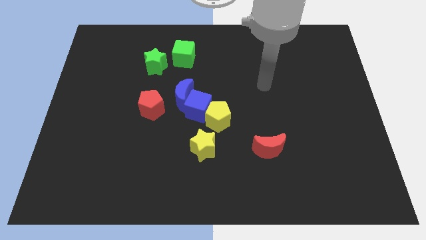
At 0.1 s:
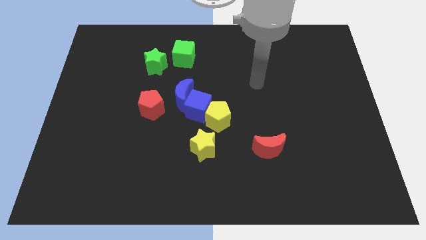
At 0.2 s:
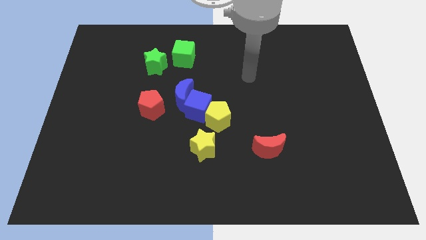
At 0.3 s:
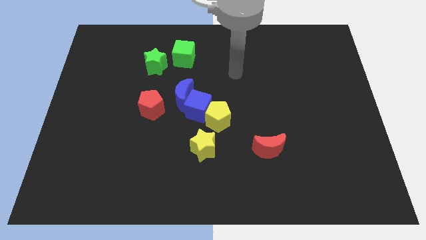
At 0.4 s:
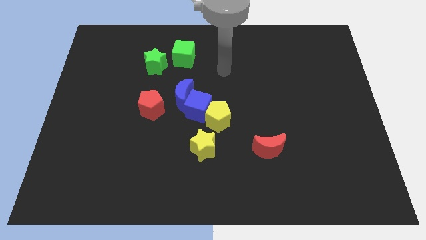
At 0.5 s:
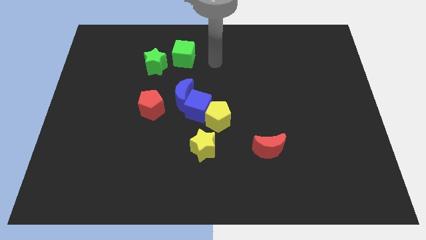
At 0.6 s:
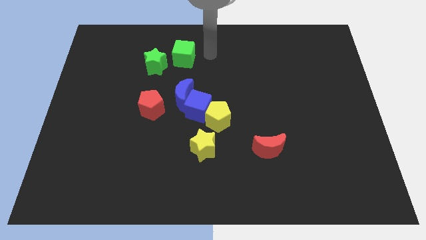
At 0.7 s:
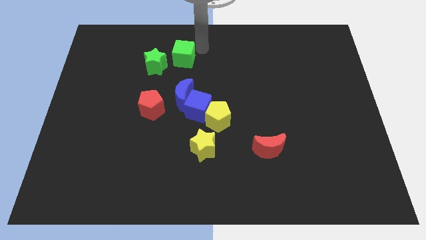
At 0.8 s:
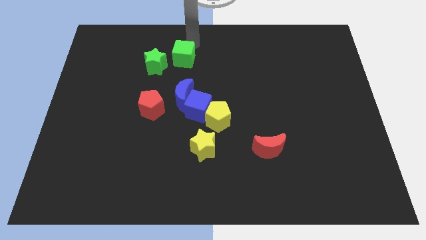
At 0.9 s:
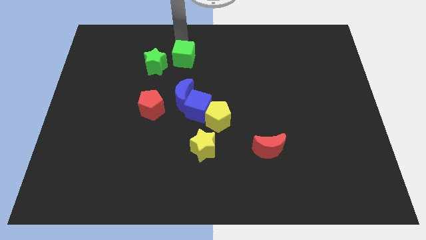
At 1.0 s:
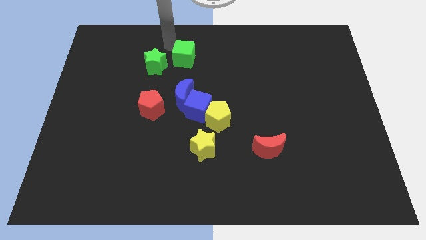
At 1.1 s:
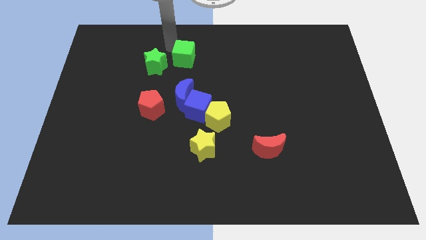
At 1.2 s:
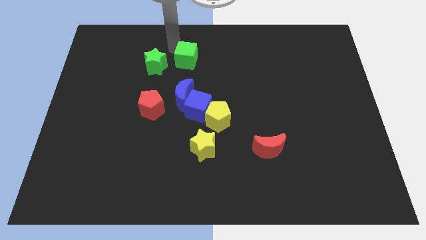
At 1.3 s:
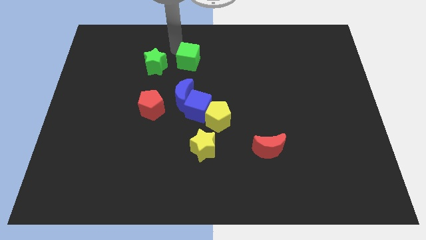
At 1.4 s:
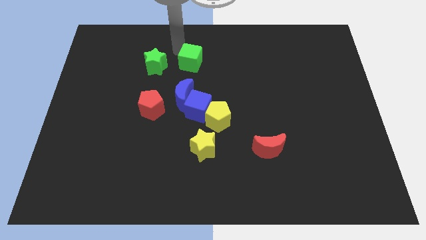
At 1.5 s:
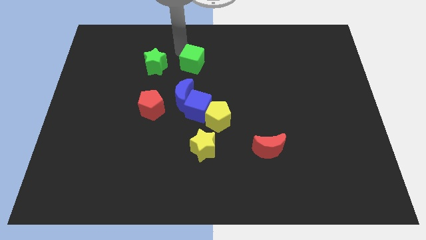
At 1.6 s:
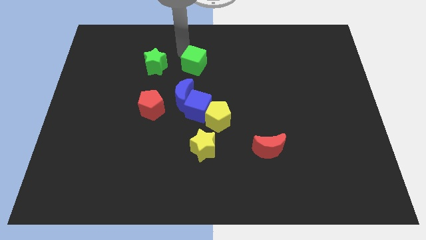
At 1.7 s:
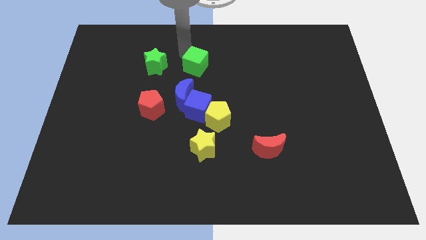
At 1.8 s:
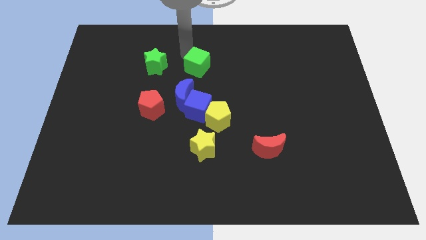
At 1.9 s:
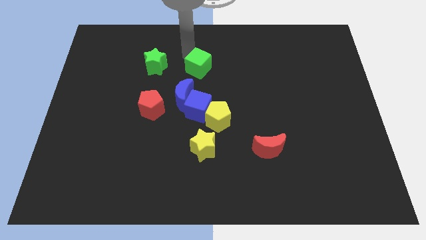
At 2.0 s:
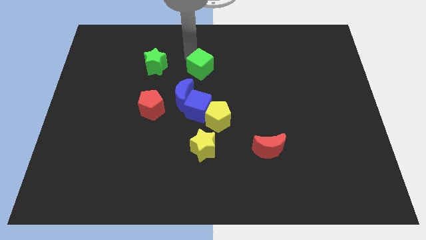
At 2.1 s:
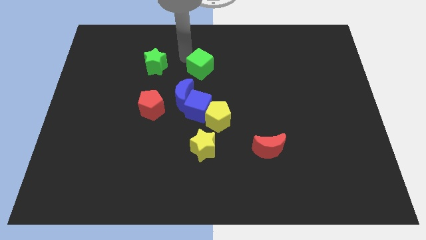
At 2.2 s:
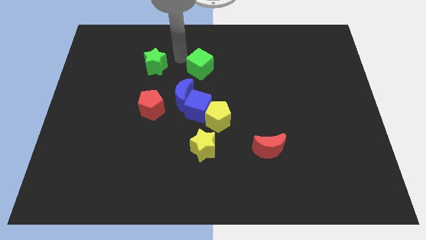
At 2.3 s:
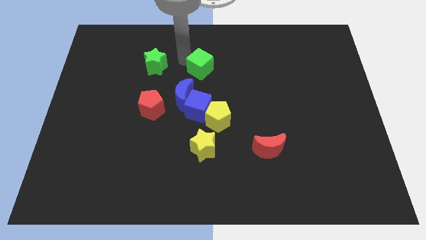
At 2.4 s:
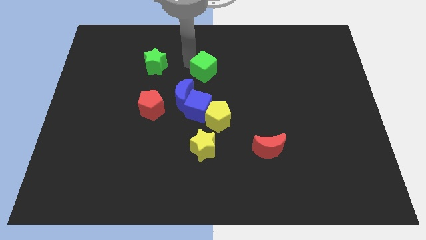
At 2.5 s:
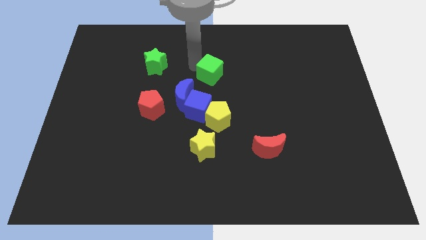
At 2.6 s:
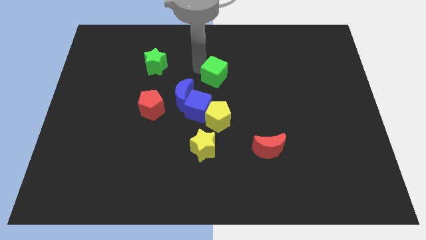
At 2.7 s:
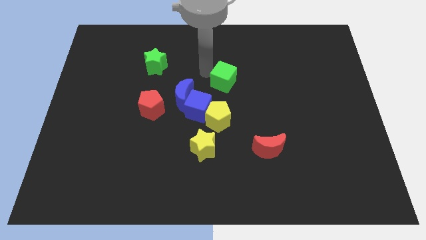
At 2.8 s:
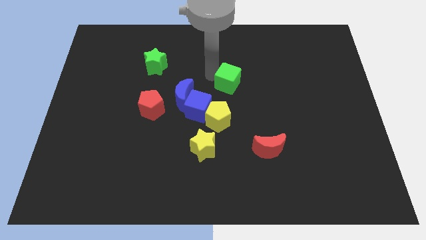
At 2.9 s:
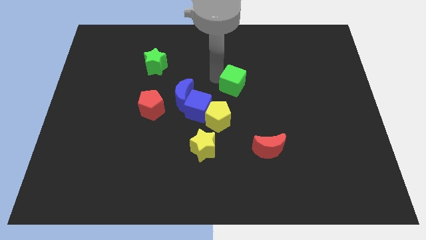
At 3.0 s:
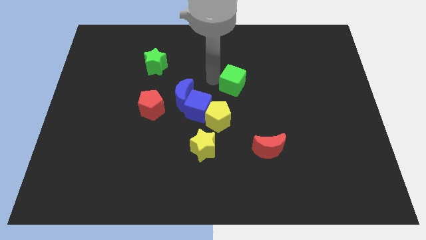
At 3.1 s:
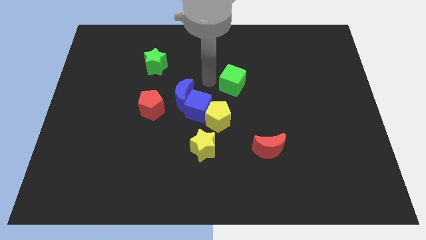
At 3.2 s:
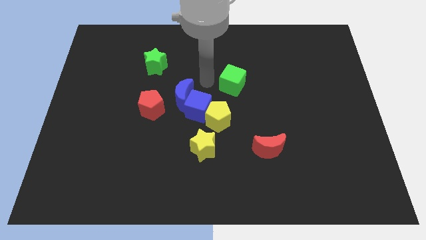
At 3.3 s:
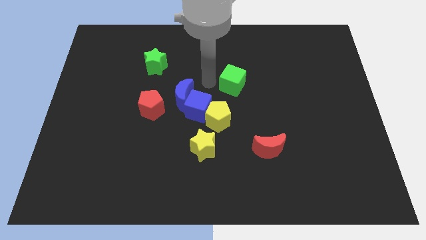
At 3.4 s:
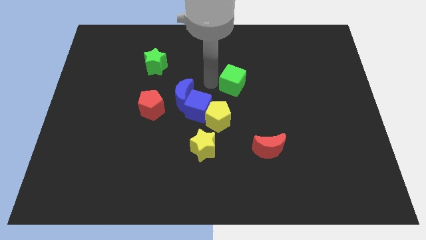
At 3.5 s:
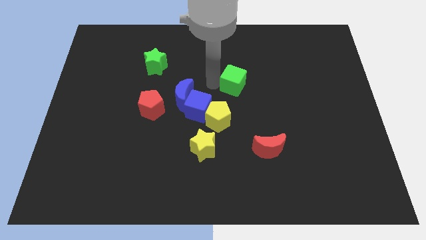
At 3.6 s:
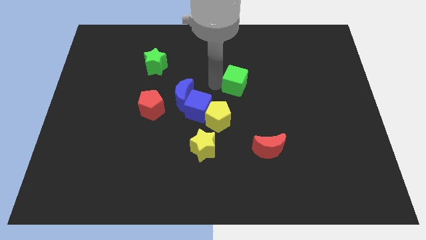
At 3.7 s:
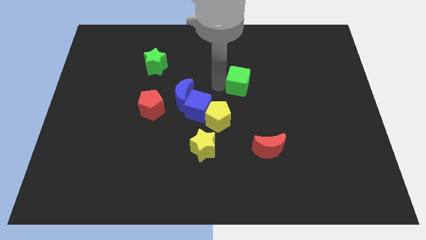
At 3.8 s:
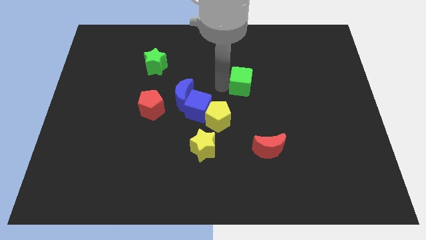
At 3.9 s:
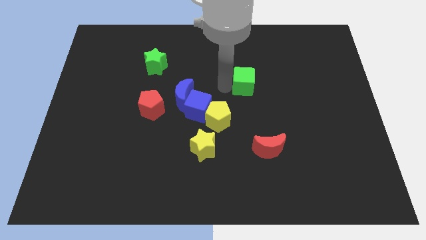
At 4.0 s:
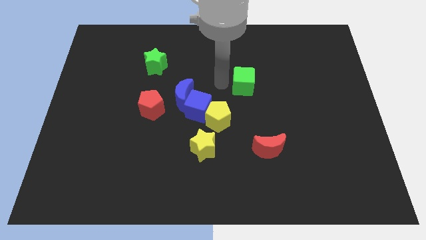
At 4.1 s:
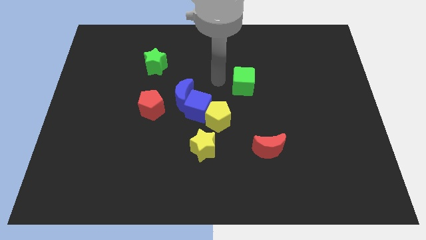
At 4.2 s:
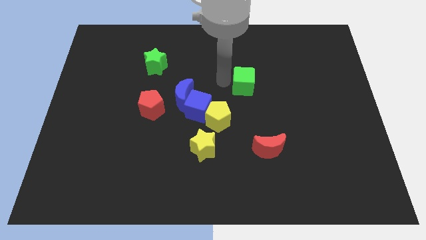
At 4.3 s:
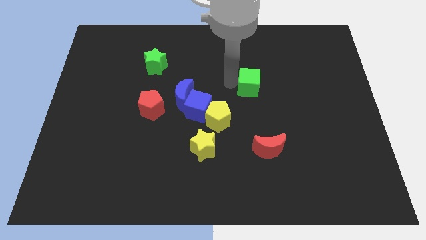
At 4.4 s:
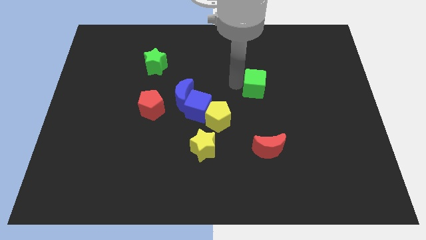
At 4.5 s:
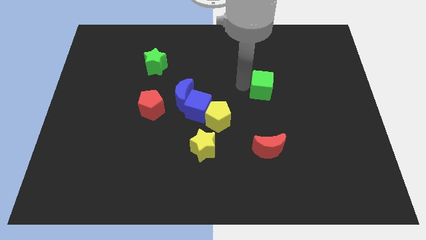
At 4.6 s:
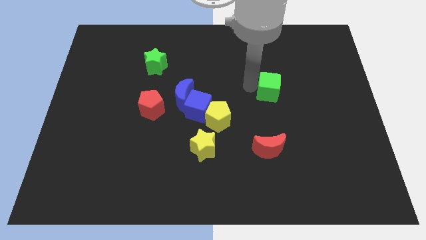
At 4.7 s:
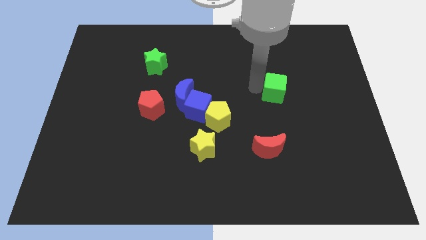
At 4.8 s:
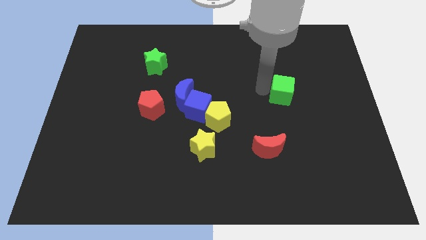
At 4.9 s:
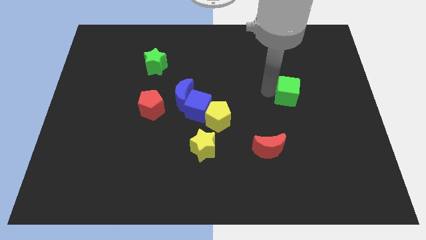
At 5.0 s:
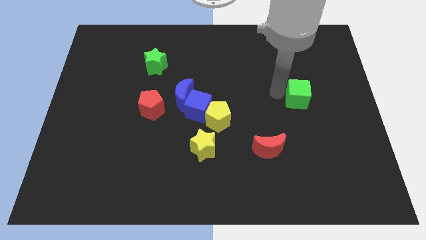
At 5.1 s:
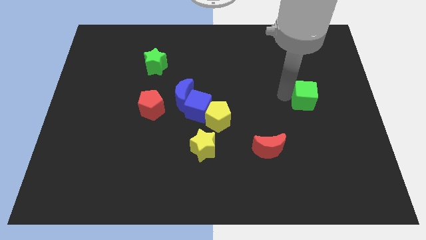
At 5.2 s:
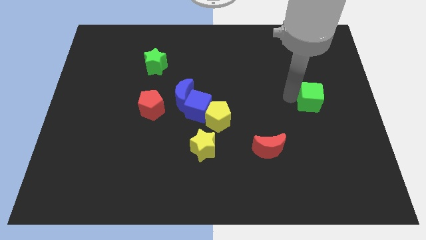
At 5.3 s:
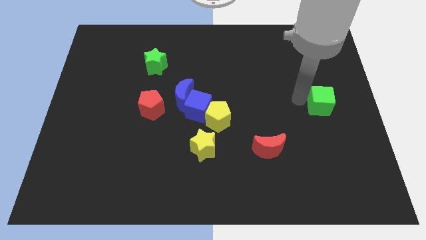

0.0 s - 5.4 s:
push the green cube to the right side of the board

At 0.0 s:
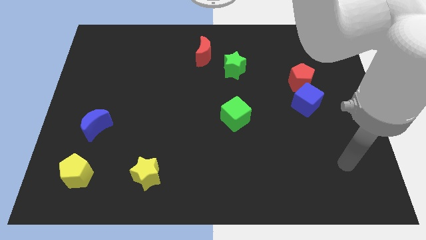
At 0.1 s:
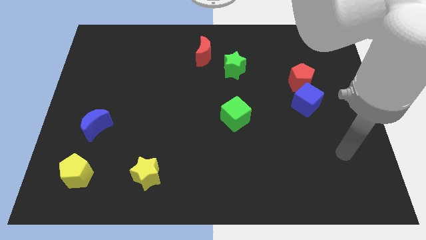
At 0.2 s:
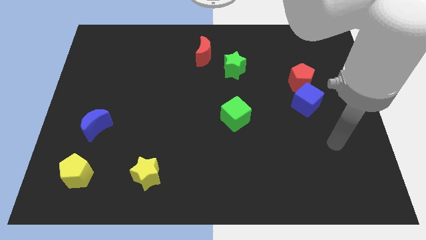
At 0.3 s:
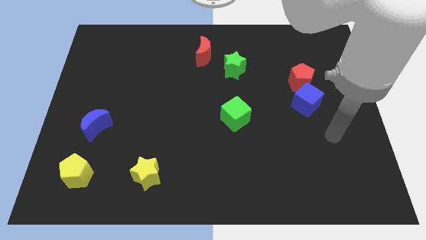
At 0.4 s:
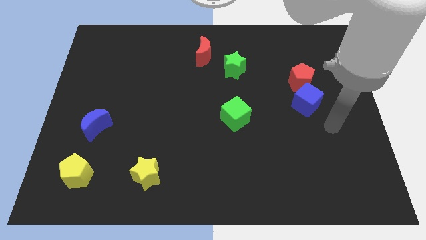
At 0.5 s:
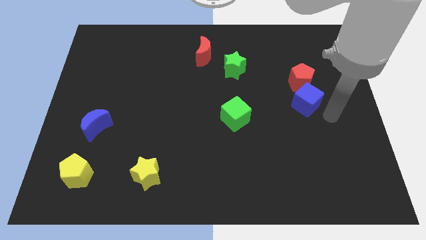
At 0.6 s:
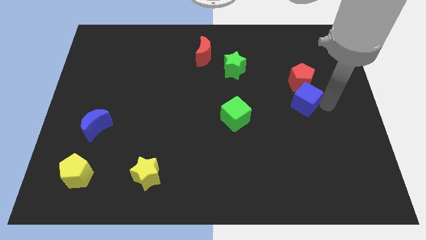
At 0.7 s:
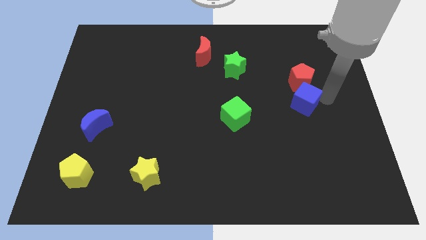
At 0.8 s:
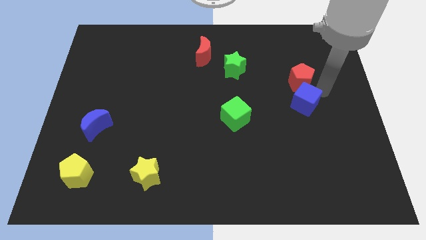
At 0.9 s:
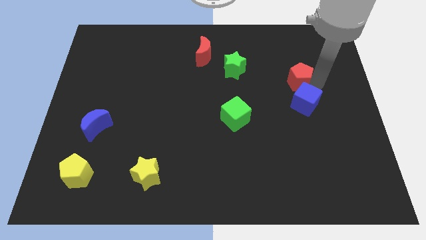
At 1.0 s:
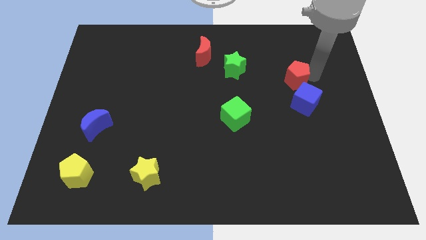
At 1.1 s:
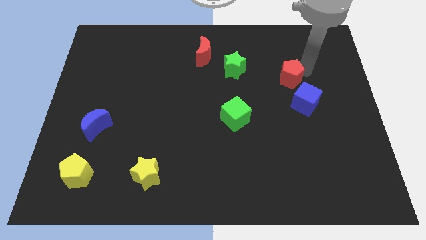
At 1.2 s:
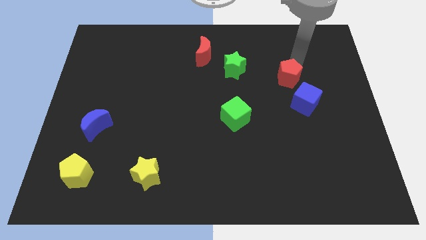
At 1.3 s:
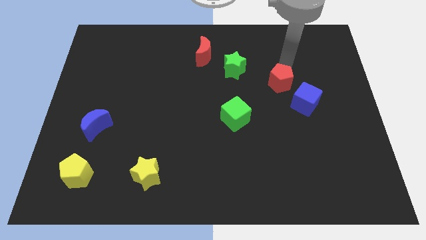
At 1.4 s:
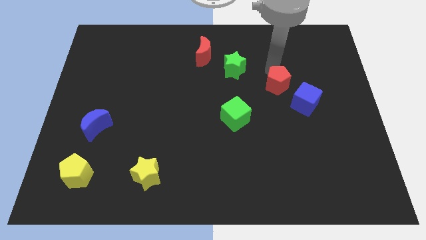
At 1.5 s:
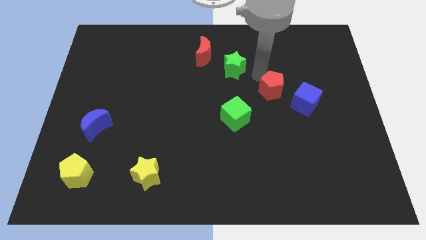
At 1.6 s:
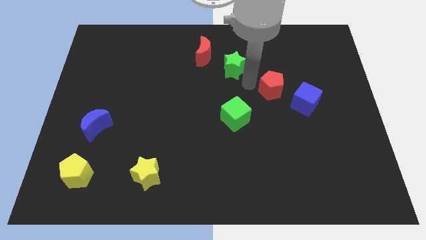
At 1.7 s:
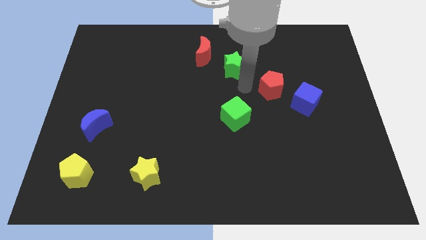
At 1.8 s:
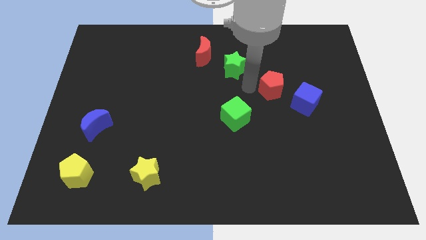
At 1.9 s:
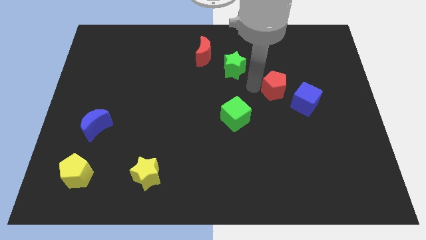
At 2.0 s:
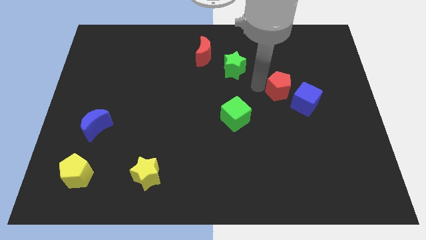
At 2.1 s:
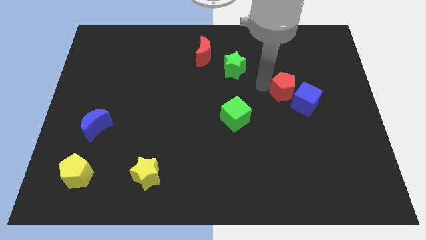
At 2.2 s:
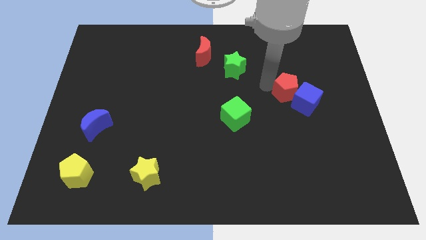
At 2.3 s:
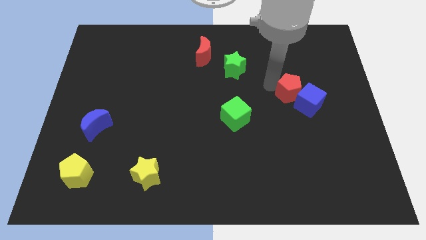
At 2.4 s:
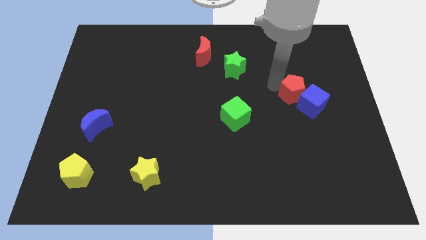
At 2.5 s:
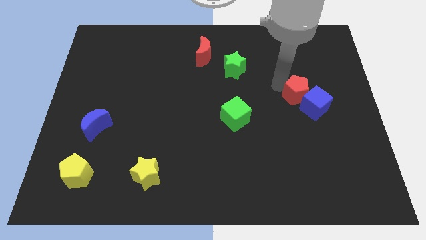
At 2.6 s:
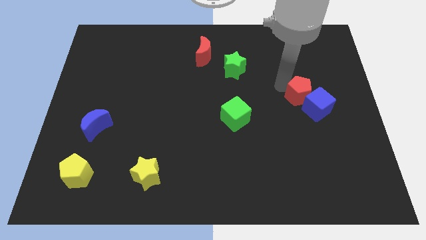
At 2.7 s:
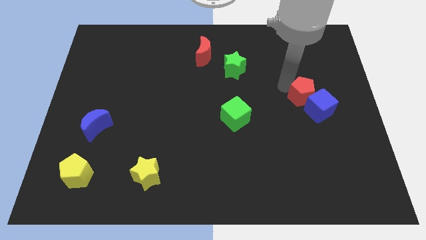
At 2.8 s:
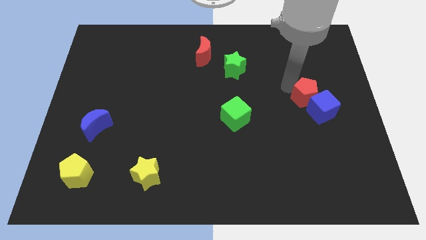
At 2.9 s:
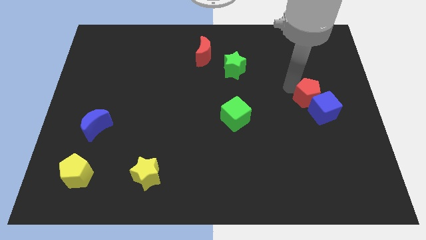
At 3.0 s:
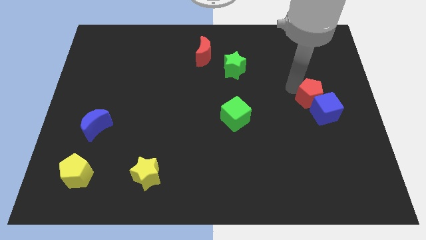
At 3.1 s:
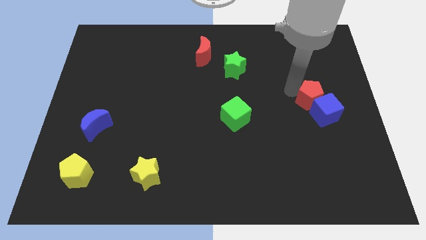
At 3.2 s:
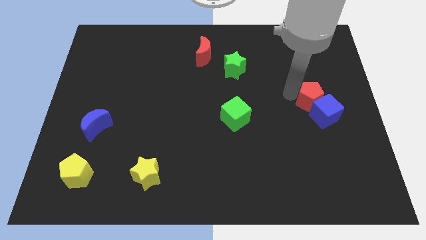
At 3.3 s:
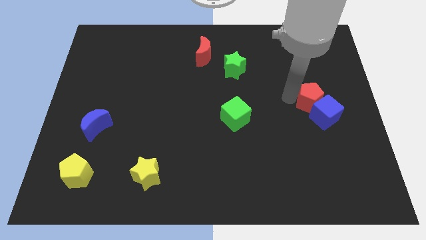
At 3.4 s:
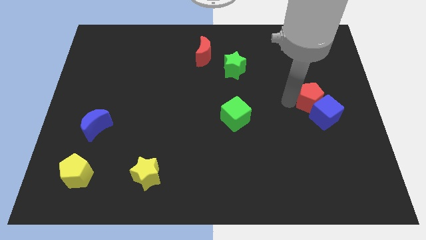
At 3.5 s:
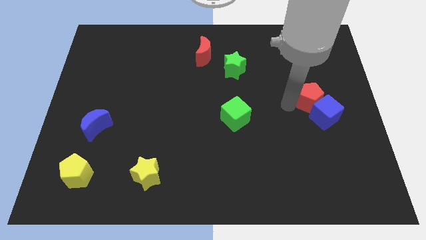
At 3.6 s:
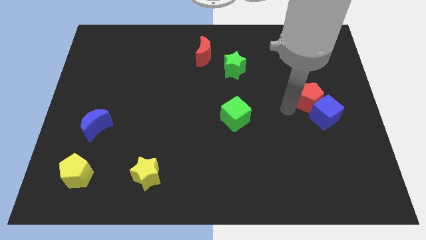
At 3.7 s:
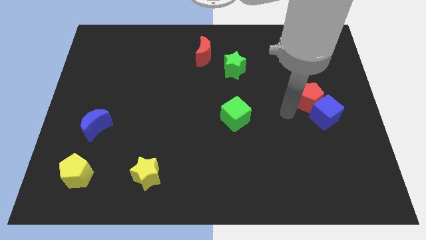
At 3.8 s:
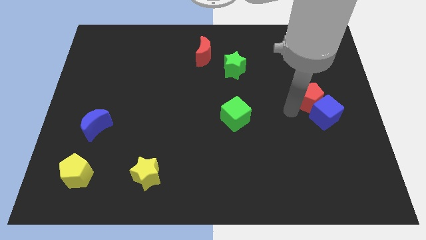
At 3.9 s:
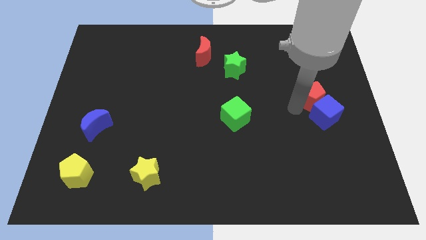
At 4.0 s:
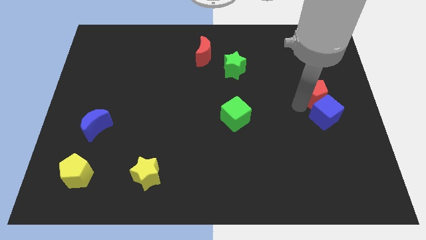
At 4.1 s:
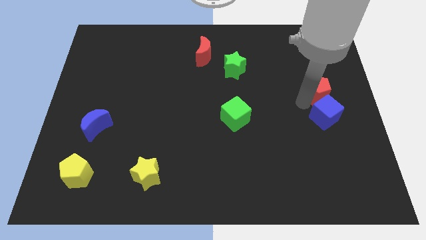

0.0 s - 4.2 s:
slide the red pentagon to the right side of the board
